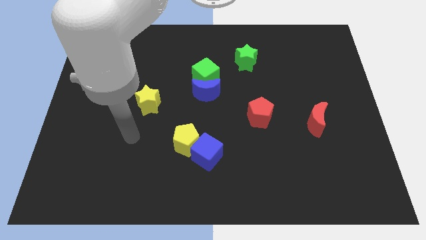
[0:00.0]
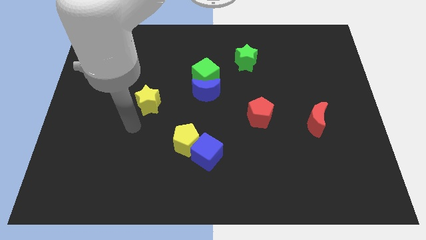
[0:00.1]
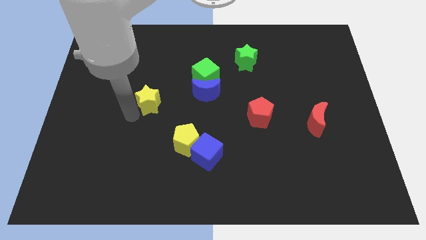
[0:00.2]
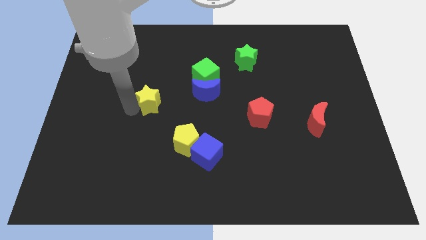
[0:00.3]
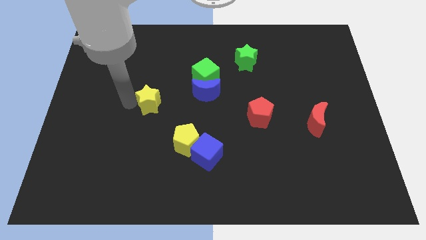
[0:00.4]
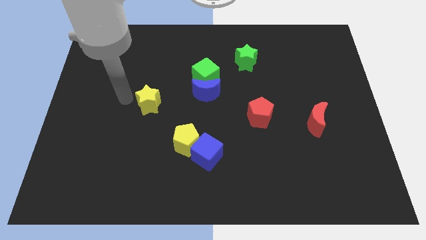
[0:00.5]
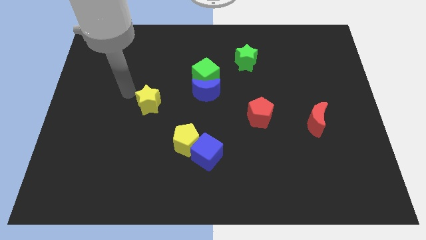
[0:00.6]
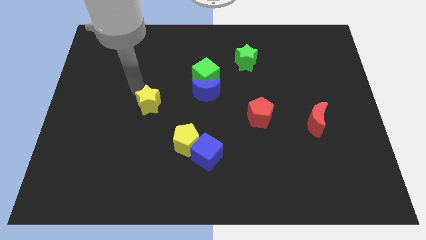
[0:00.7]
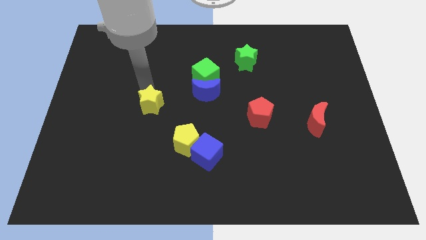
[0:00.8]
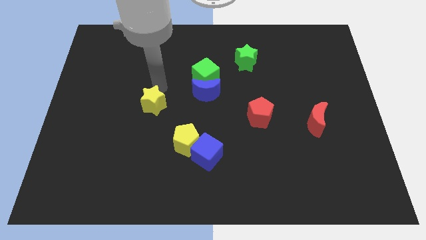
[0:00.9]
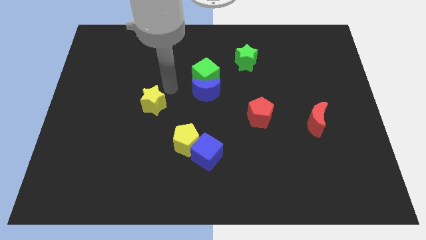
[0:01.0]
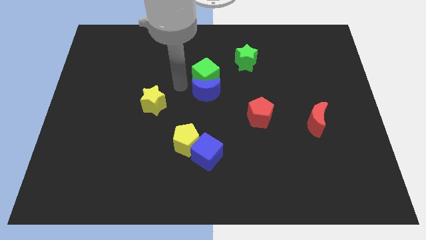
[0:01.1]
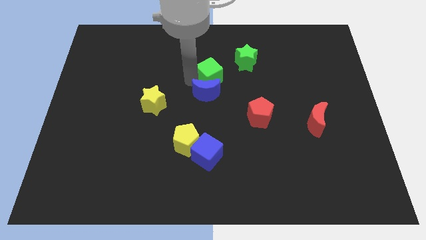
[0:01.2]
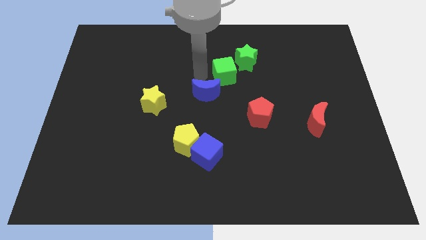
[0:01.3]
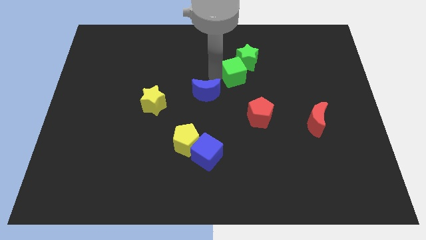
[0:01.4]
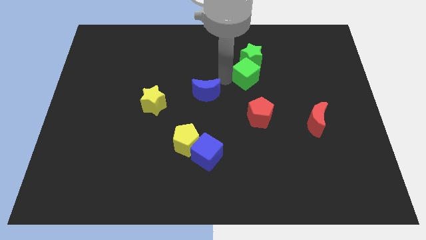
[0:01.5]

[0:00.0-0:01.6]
move the blue moon away from the green cube

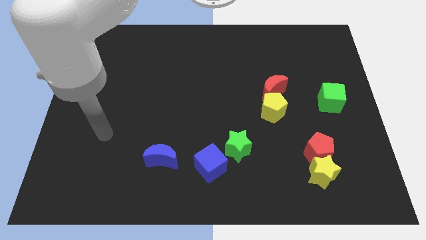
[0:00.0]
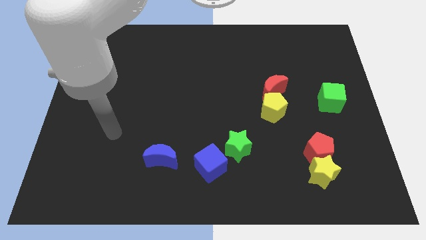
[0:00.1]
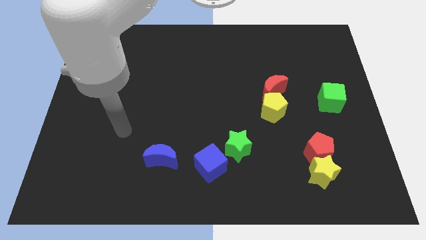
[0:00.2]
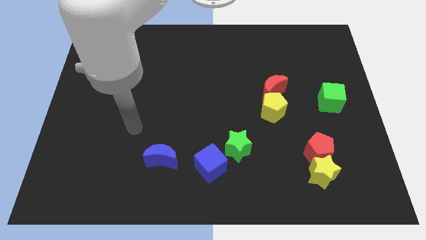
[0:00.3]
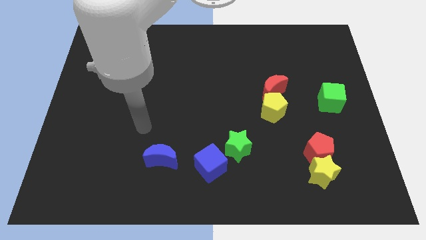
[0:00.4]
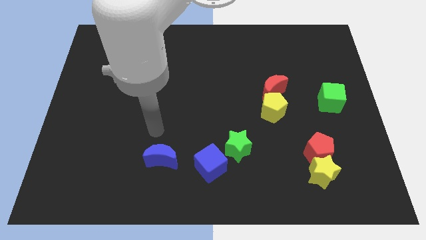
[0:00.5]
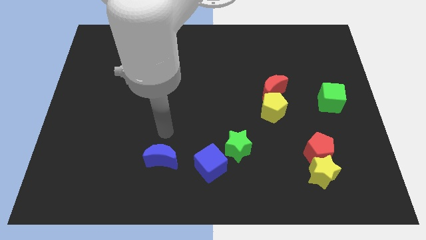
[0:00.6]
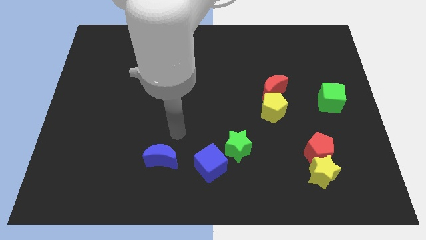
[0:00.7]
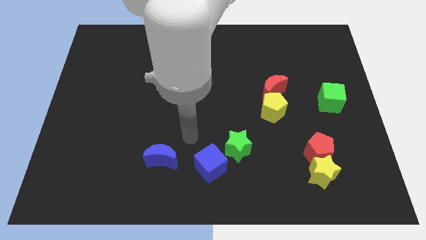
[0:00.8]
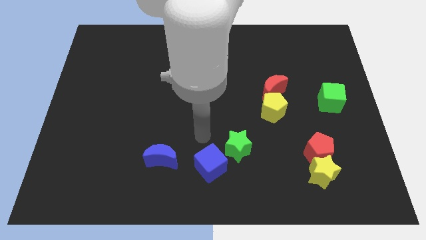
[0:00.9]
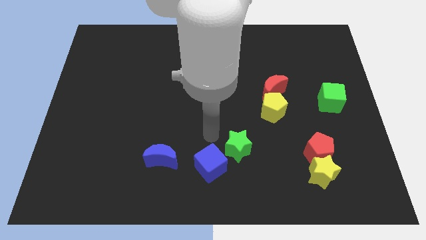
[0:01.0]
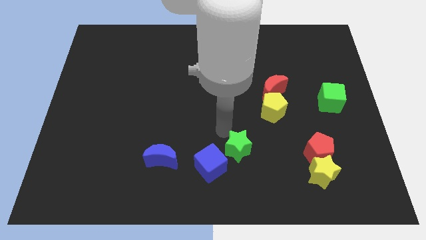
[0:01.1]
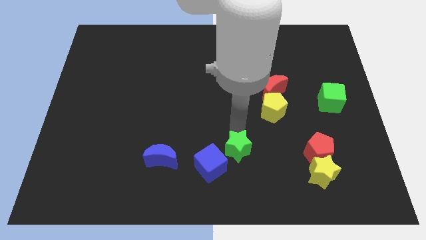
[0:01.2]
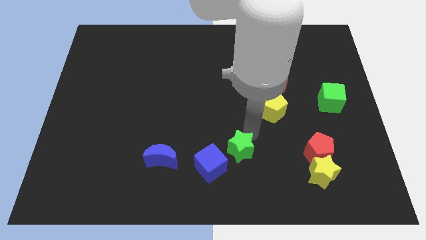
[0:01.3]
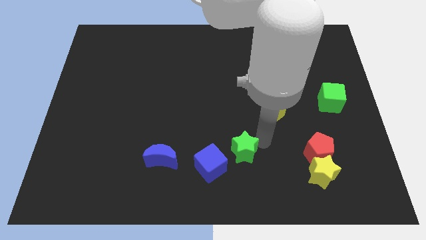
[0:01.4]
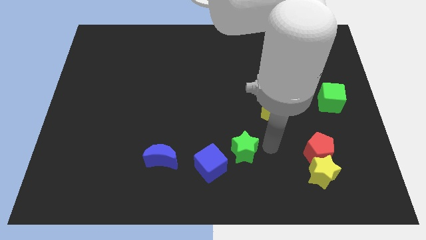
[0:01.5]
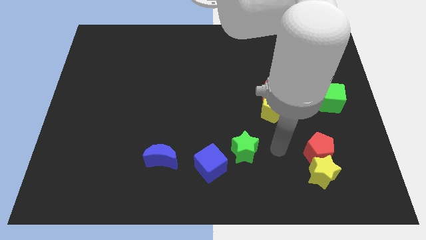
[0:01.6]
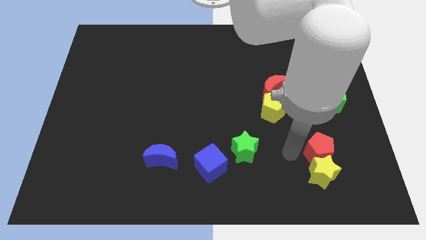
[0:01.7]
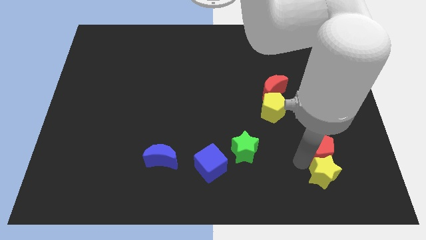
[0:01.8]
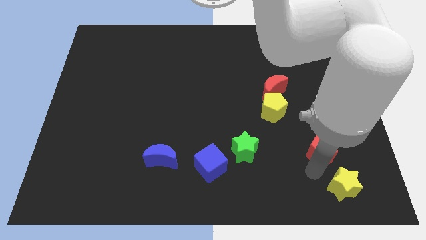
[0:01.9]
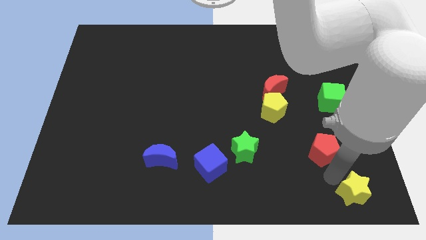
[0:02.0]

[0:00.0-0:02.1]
move the red pentagon away from the yellow star

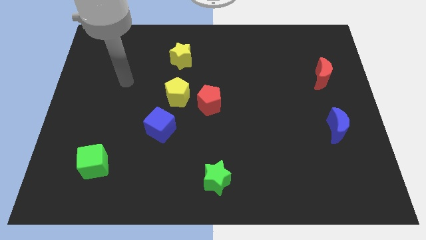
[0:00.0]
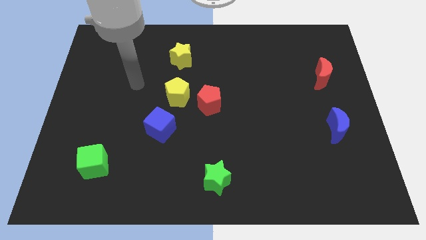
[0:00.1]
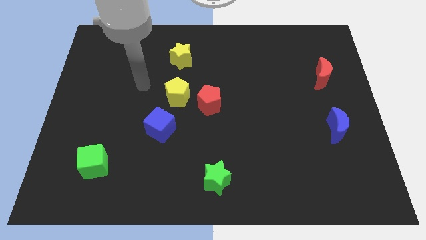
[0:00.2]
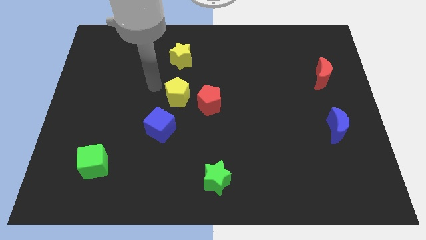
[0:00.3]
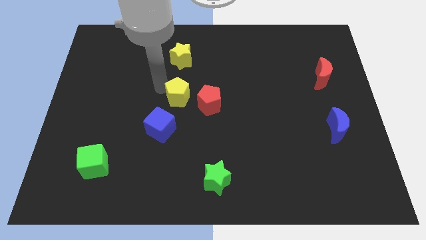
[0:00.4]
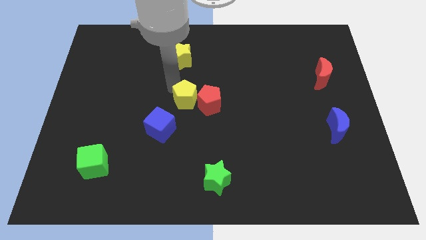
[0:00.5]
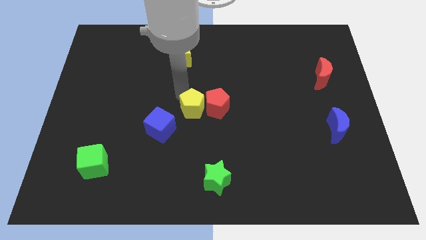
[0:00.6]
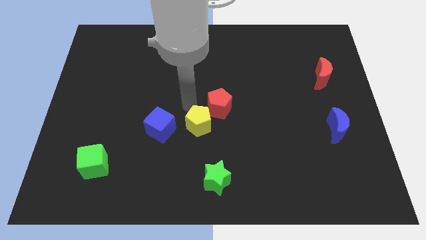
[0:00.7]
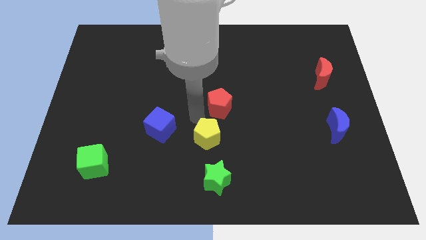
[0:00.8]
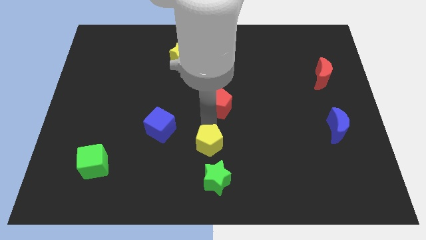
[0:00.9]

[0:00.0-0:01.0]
move the red pentagon away from the yellow pentagon

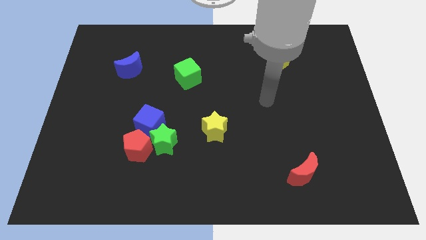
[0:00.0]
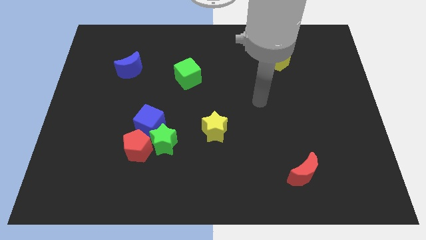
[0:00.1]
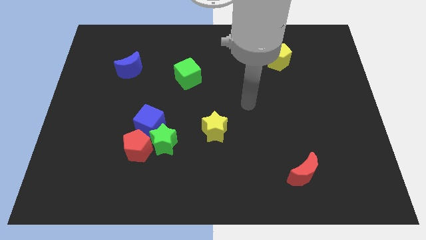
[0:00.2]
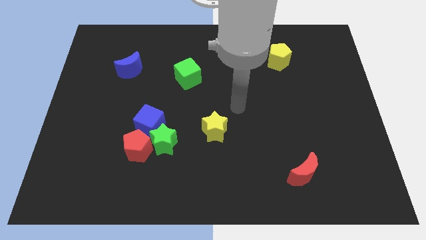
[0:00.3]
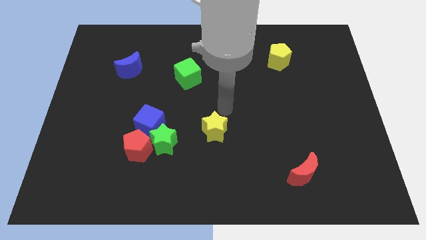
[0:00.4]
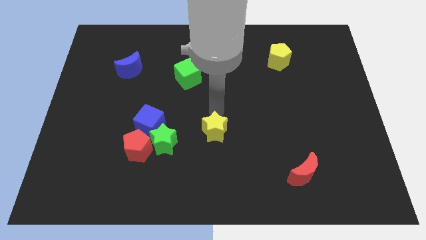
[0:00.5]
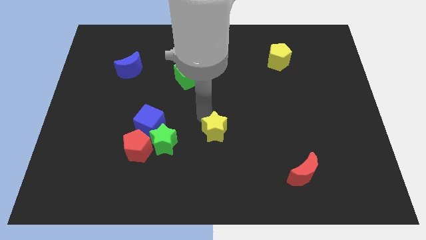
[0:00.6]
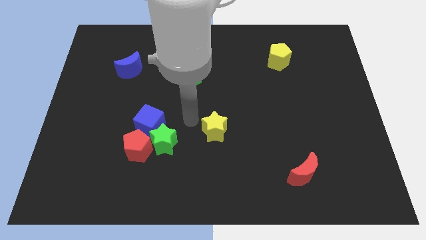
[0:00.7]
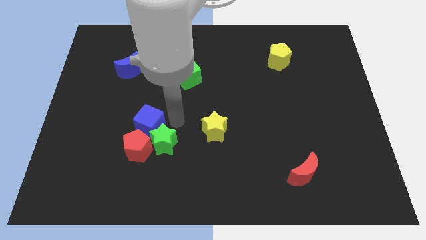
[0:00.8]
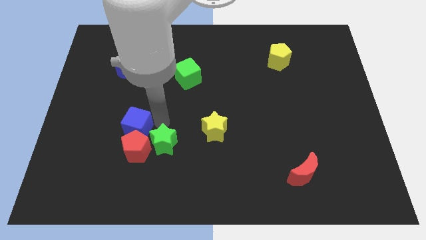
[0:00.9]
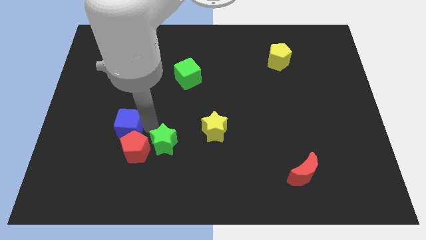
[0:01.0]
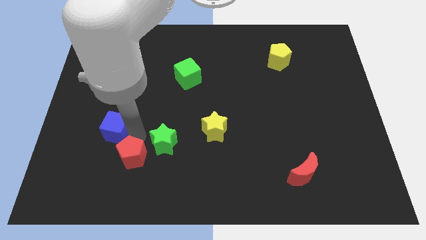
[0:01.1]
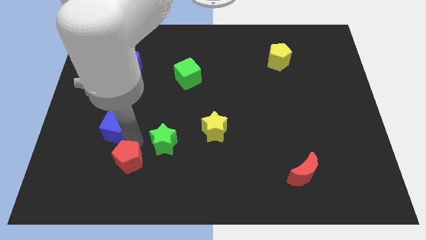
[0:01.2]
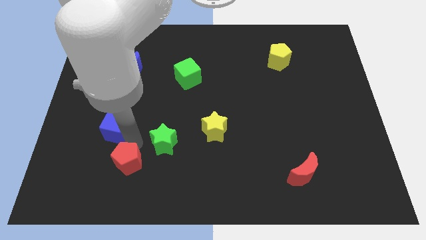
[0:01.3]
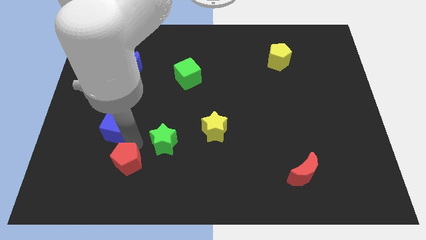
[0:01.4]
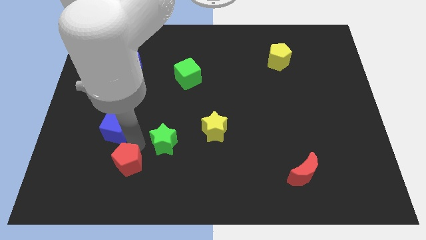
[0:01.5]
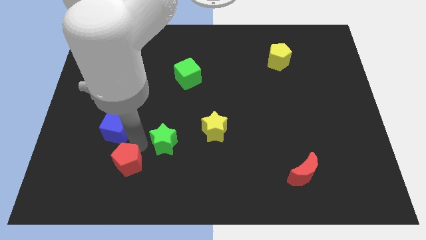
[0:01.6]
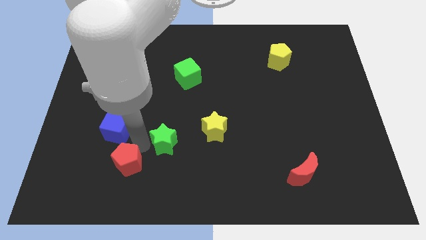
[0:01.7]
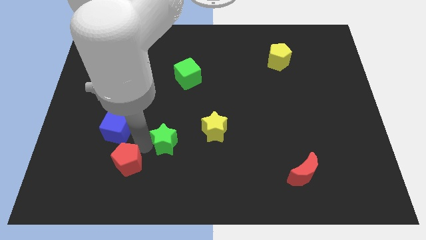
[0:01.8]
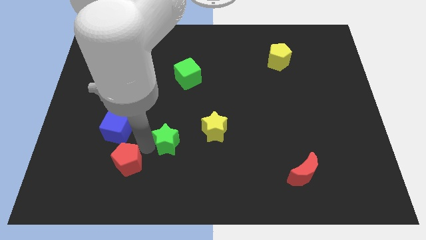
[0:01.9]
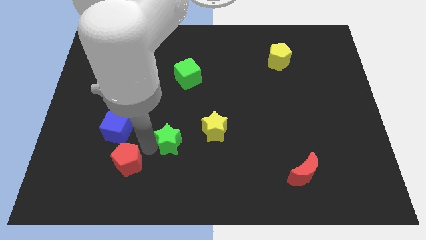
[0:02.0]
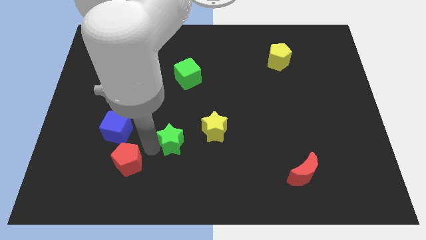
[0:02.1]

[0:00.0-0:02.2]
pull the green star apart from the red pentagon and blue cube

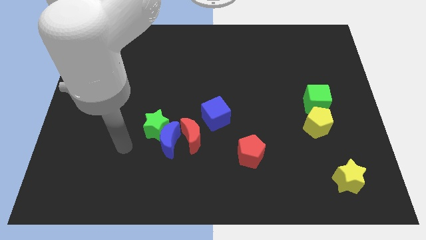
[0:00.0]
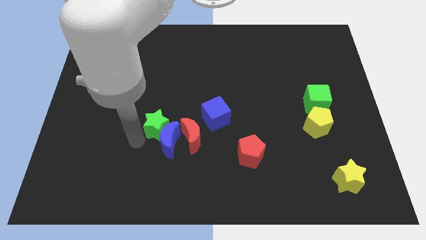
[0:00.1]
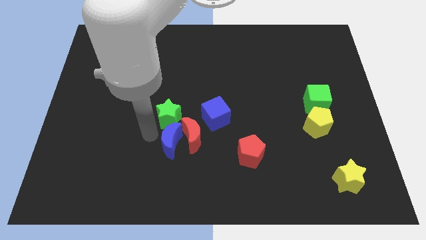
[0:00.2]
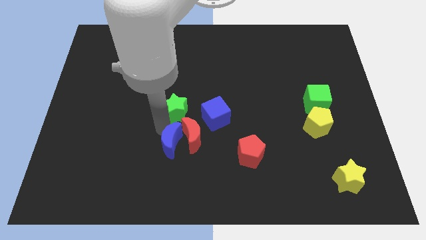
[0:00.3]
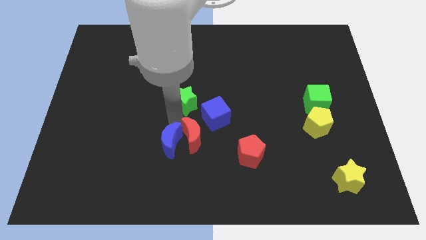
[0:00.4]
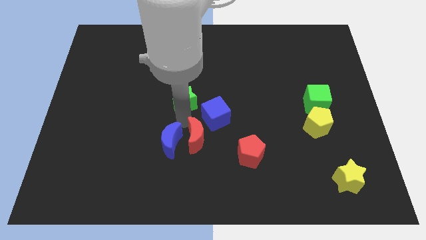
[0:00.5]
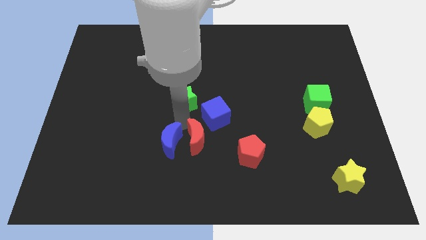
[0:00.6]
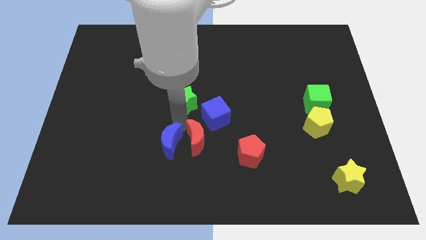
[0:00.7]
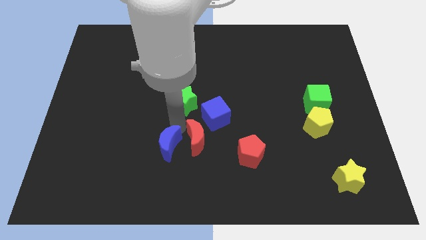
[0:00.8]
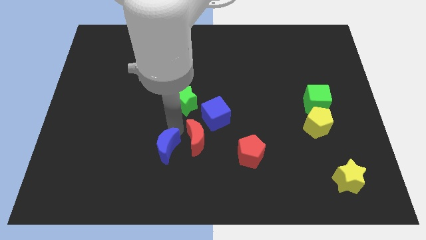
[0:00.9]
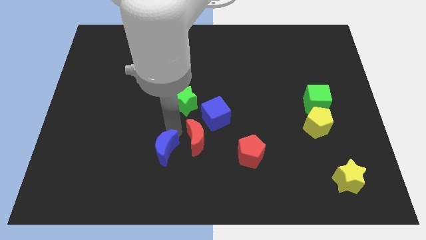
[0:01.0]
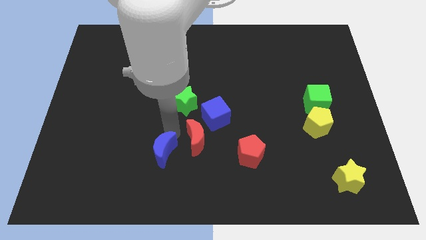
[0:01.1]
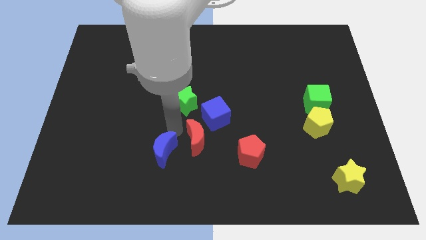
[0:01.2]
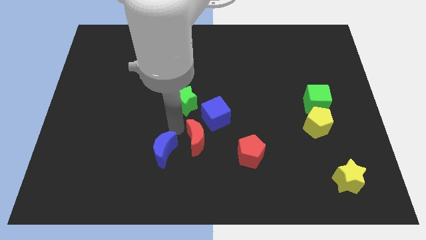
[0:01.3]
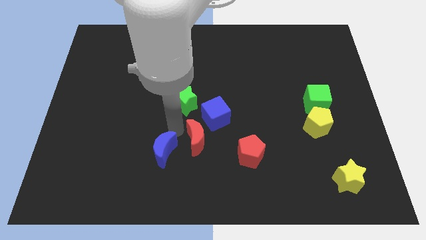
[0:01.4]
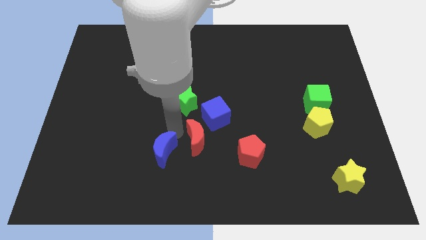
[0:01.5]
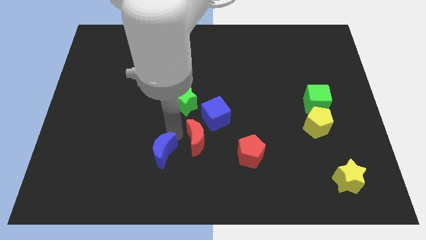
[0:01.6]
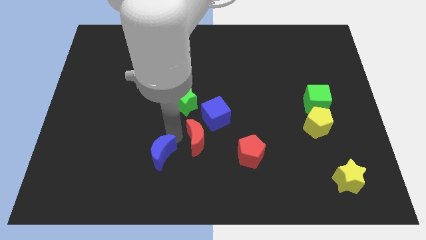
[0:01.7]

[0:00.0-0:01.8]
pull the blue moon apart from the green star and red moon

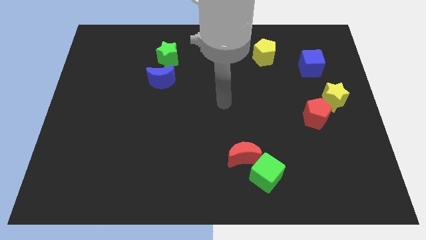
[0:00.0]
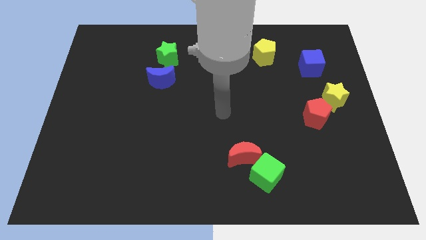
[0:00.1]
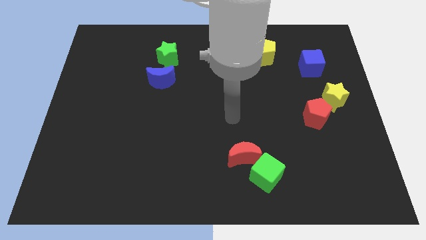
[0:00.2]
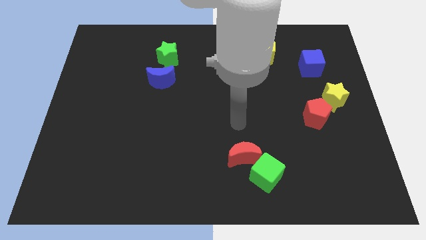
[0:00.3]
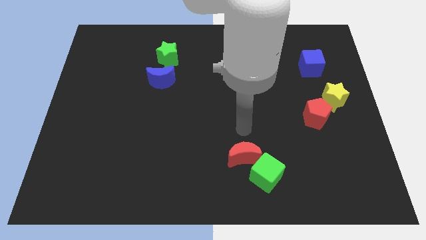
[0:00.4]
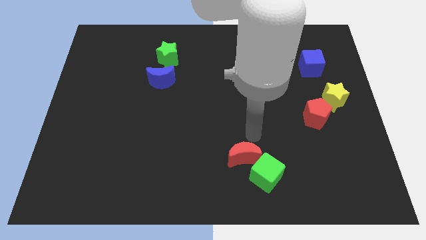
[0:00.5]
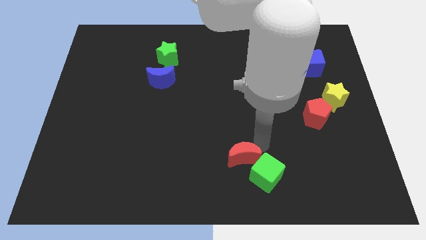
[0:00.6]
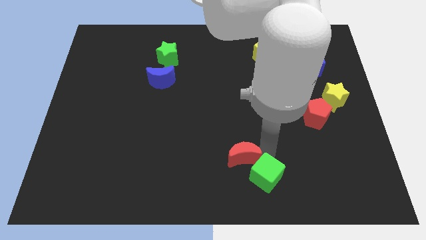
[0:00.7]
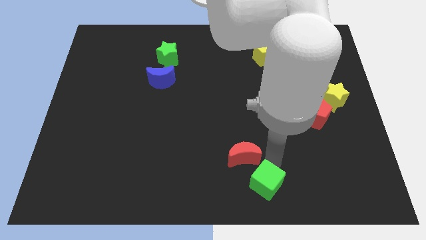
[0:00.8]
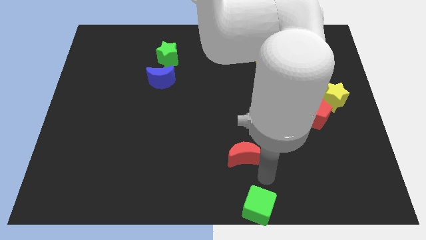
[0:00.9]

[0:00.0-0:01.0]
move the red moon away from the green cube
